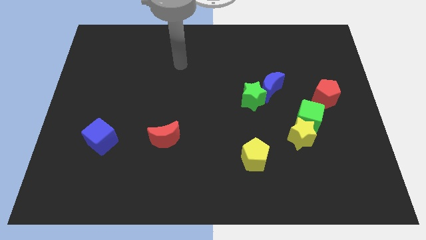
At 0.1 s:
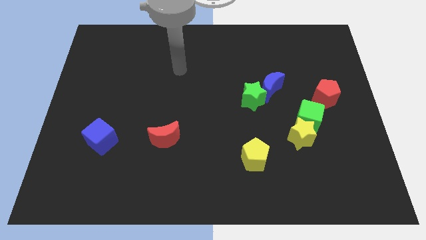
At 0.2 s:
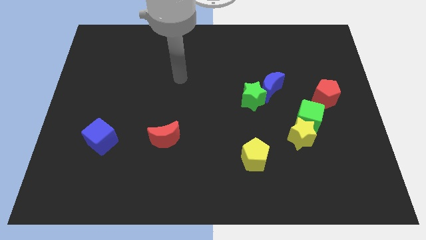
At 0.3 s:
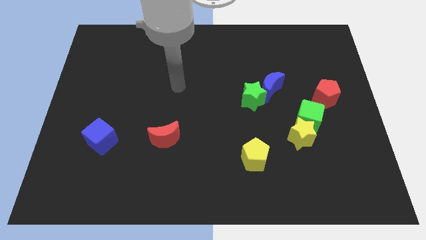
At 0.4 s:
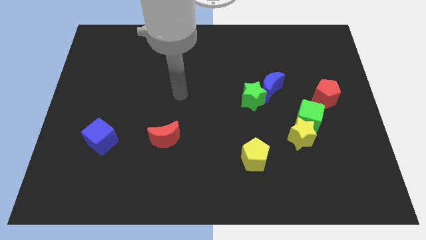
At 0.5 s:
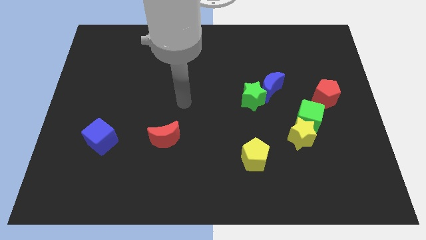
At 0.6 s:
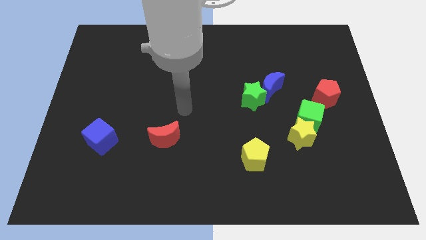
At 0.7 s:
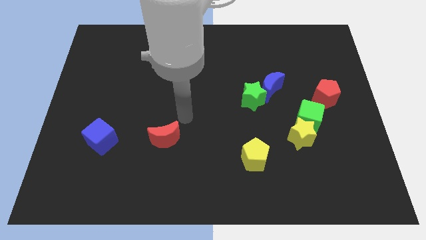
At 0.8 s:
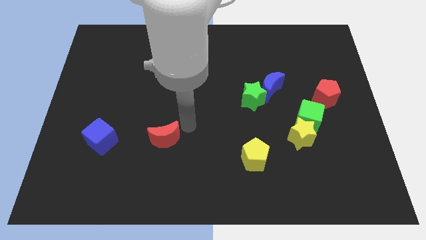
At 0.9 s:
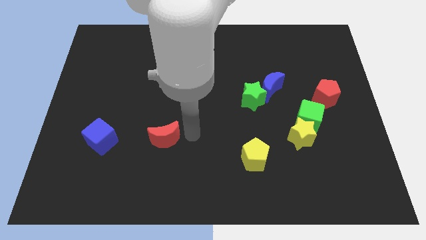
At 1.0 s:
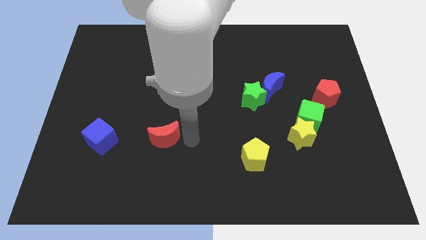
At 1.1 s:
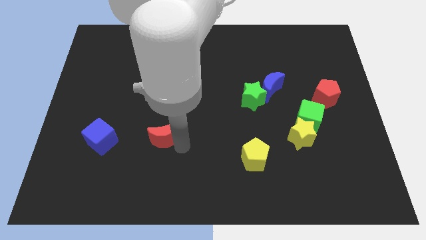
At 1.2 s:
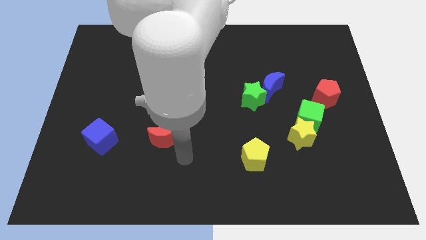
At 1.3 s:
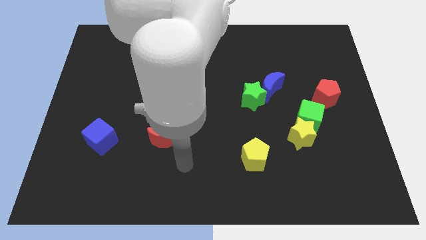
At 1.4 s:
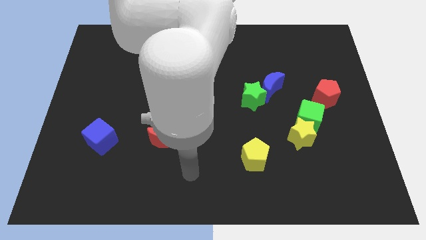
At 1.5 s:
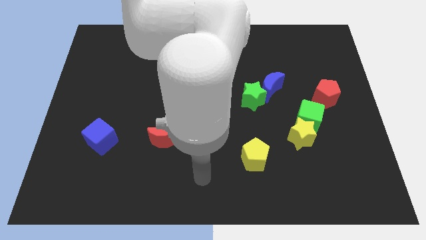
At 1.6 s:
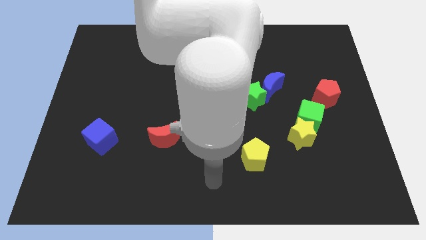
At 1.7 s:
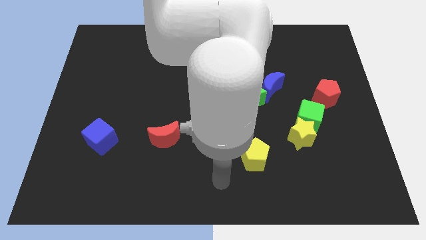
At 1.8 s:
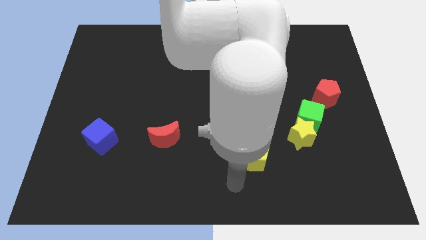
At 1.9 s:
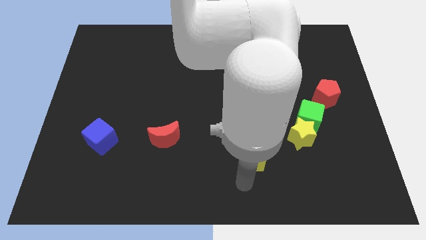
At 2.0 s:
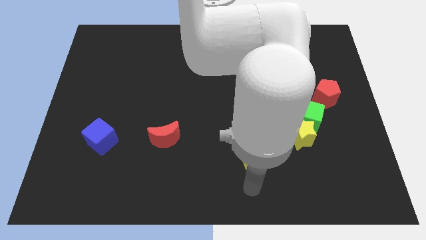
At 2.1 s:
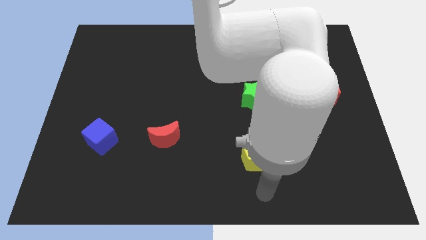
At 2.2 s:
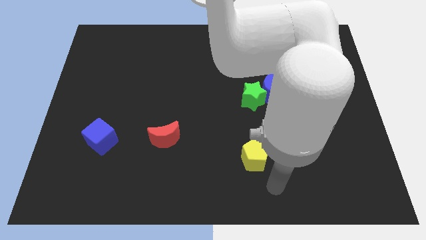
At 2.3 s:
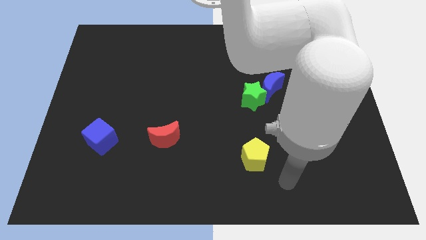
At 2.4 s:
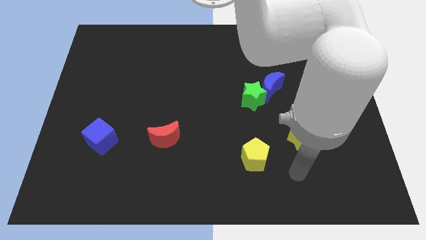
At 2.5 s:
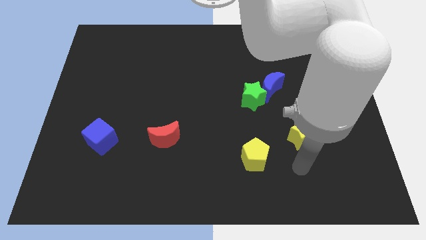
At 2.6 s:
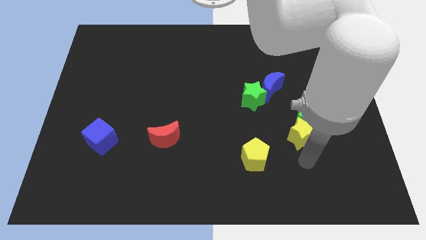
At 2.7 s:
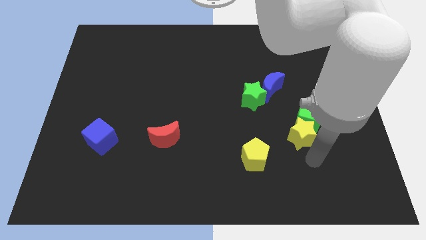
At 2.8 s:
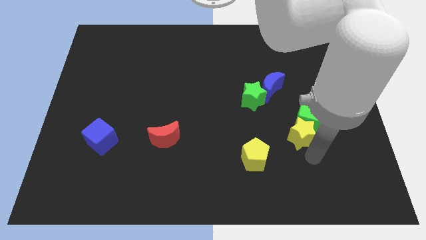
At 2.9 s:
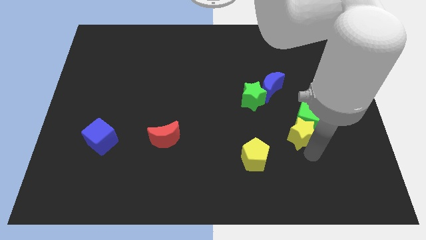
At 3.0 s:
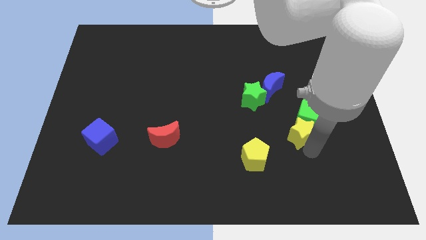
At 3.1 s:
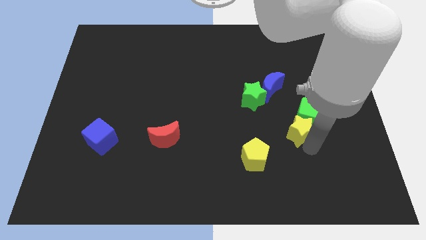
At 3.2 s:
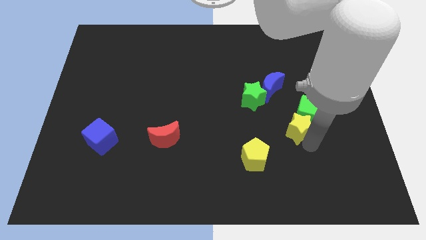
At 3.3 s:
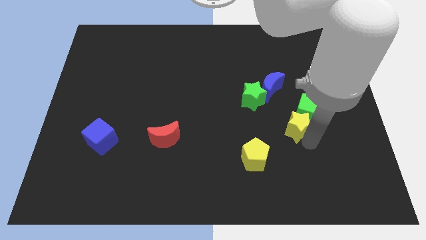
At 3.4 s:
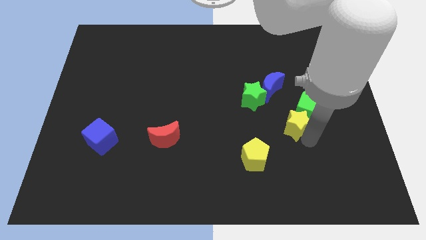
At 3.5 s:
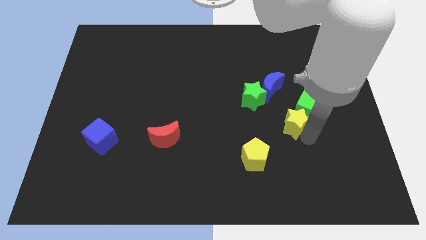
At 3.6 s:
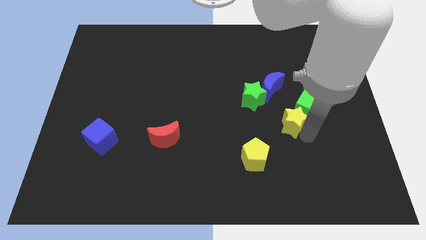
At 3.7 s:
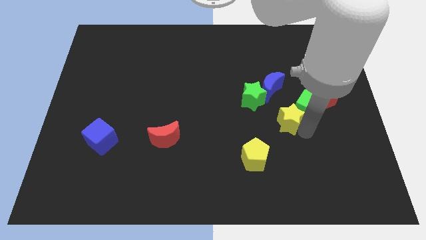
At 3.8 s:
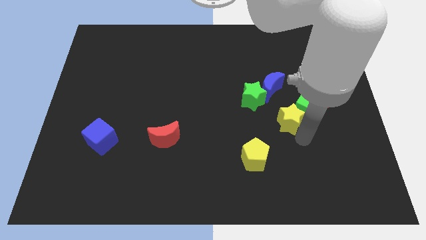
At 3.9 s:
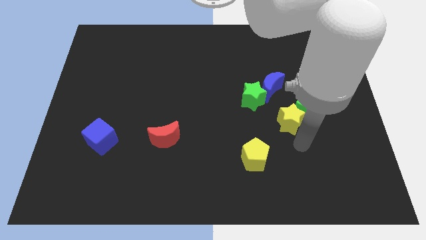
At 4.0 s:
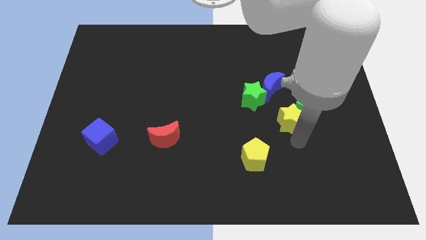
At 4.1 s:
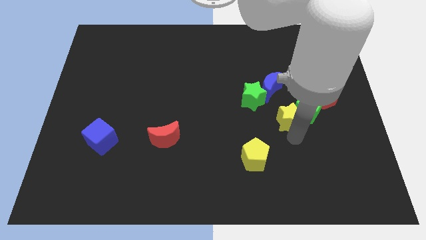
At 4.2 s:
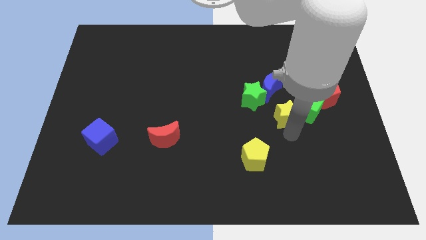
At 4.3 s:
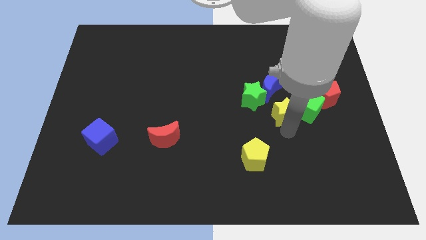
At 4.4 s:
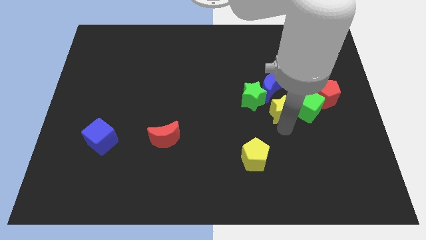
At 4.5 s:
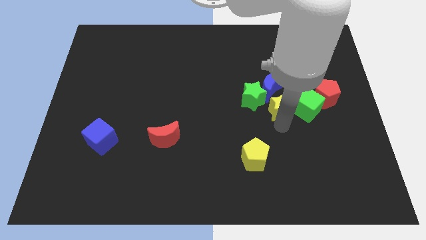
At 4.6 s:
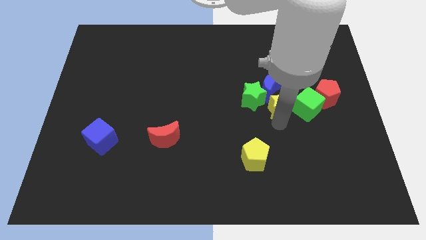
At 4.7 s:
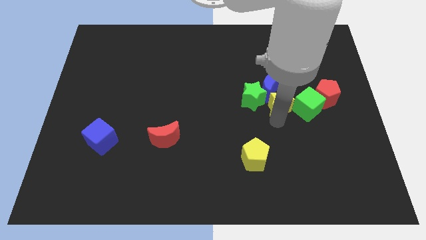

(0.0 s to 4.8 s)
move the yellow star next to the blue moon

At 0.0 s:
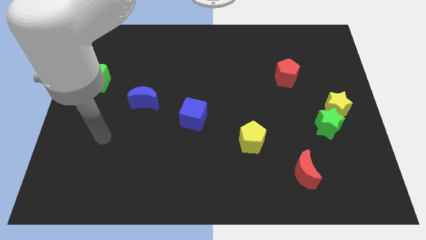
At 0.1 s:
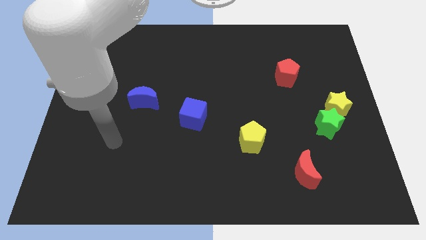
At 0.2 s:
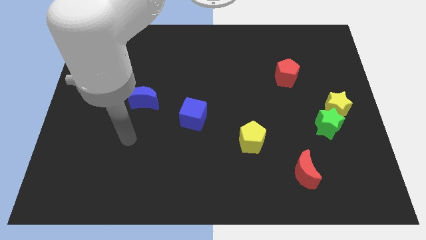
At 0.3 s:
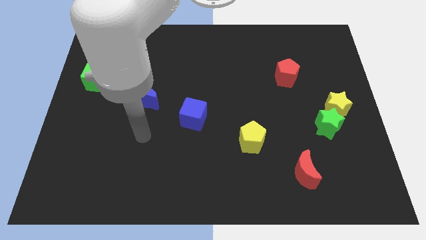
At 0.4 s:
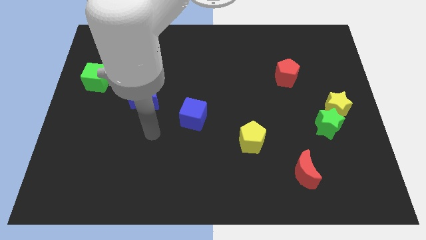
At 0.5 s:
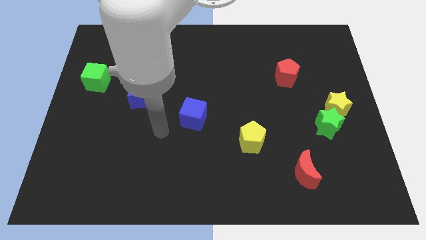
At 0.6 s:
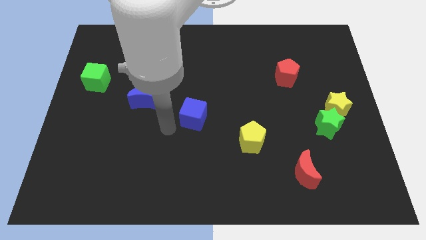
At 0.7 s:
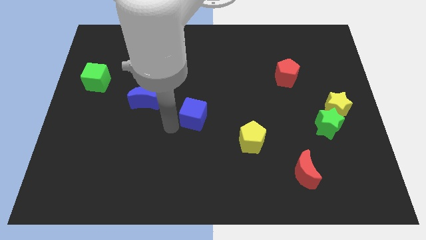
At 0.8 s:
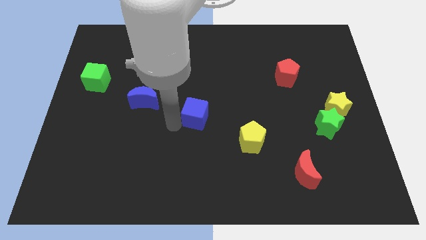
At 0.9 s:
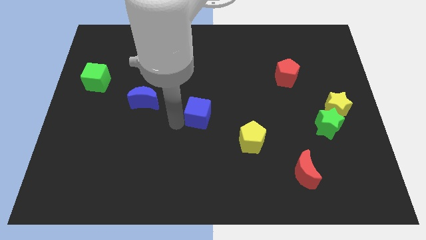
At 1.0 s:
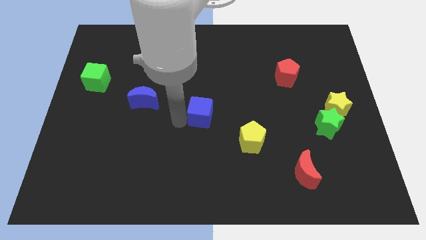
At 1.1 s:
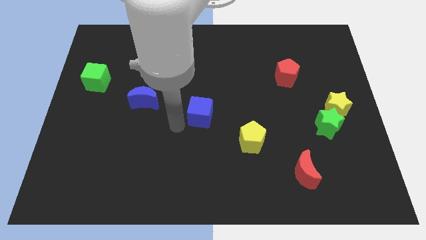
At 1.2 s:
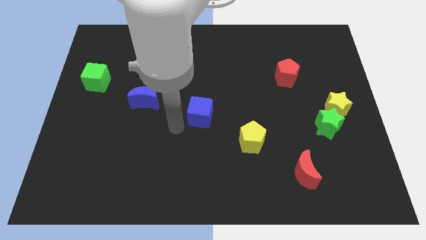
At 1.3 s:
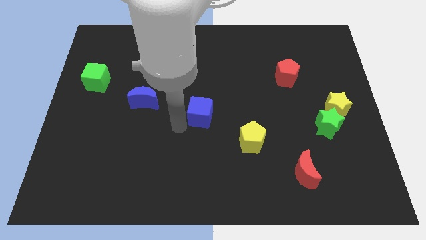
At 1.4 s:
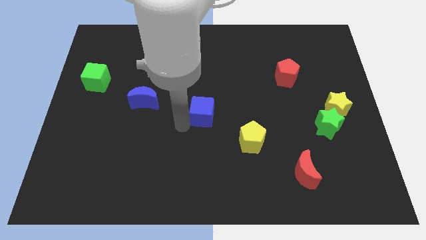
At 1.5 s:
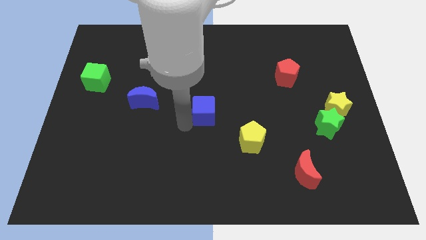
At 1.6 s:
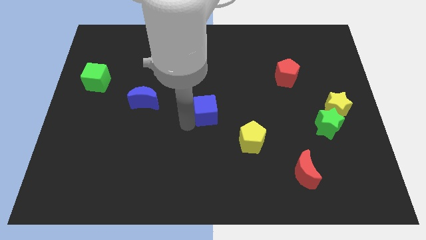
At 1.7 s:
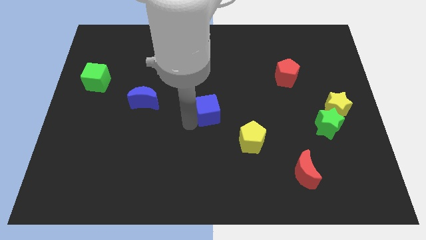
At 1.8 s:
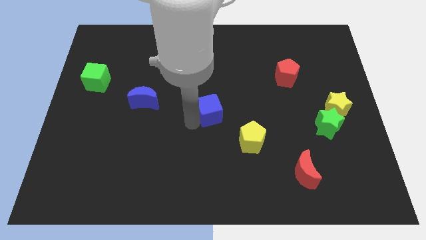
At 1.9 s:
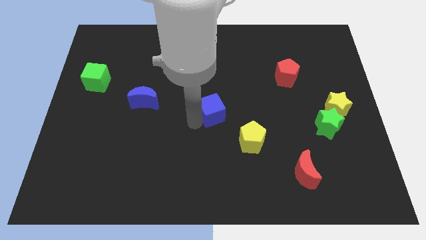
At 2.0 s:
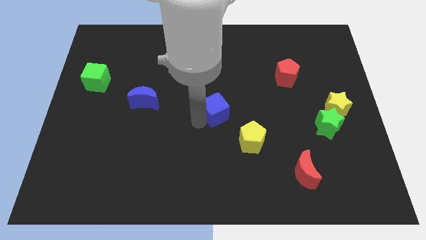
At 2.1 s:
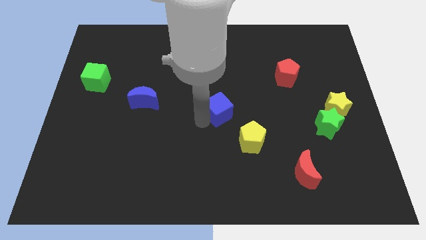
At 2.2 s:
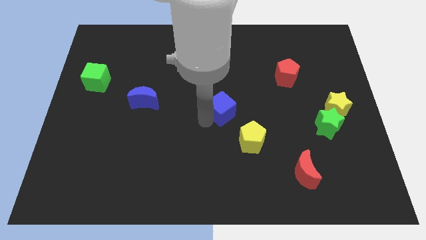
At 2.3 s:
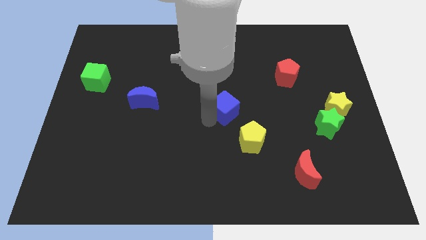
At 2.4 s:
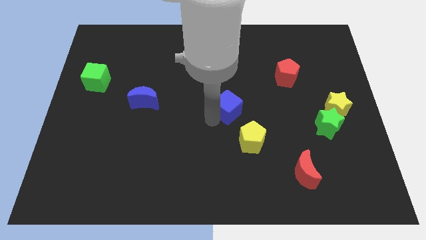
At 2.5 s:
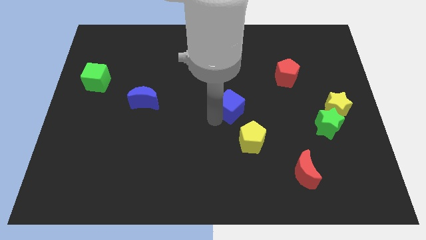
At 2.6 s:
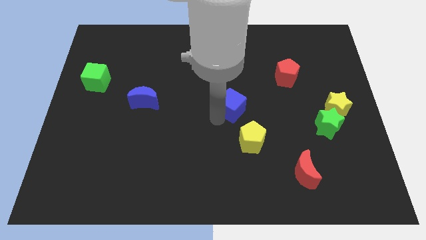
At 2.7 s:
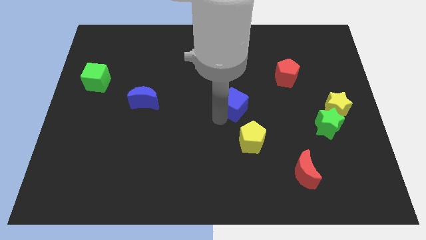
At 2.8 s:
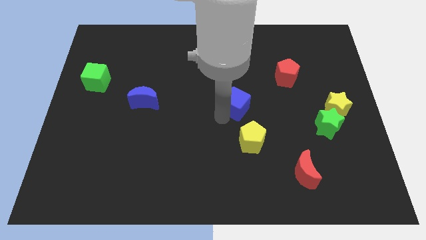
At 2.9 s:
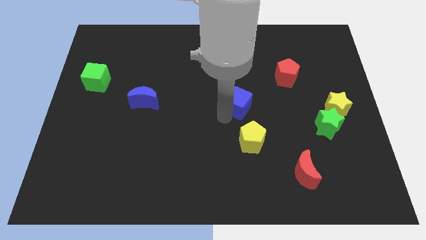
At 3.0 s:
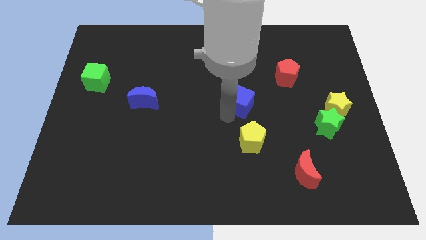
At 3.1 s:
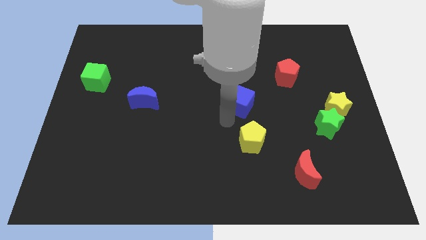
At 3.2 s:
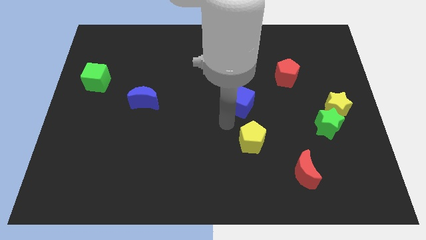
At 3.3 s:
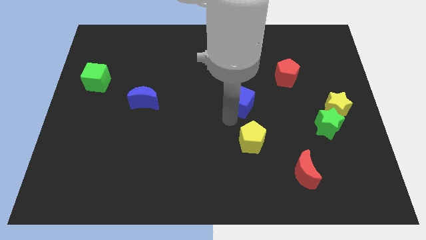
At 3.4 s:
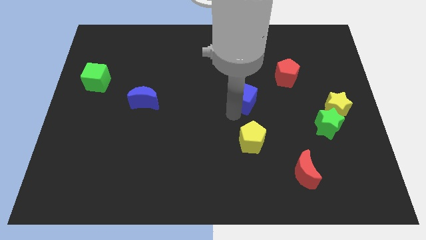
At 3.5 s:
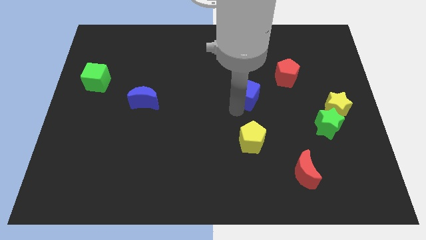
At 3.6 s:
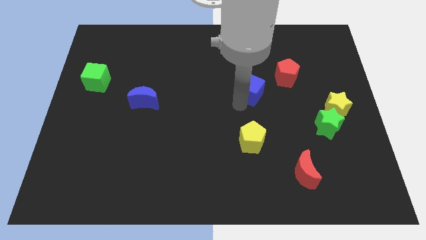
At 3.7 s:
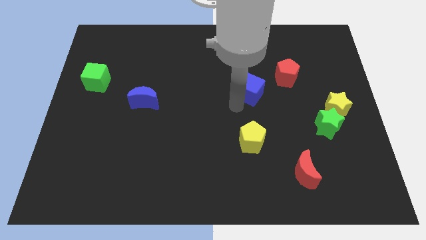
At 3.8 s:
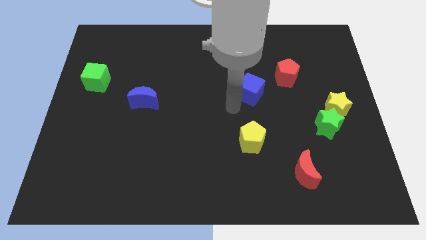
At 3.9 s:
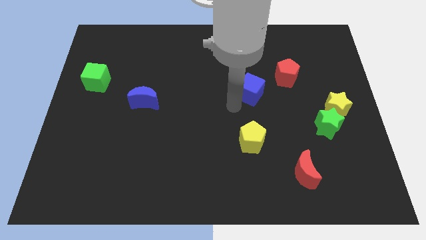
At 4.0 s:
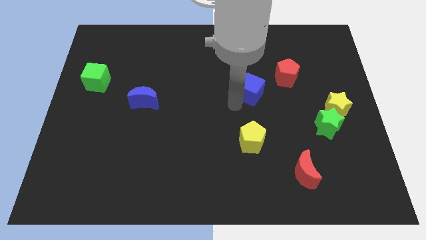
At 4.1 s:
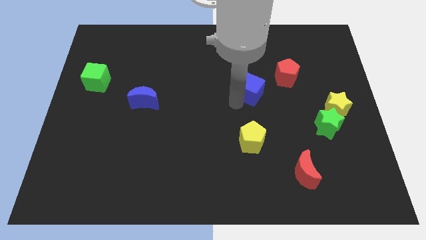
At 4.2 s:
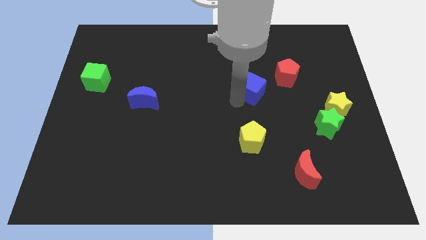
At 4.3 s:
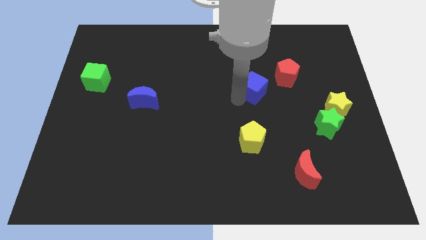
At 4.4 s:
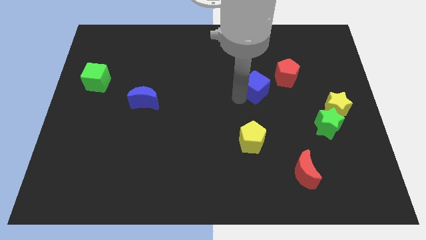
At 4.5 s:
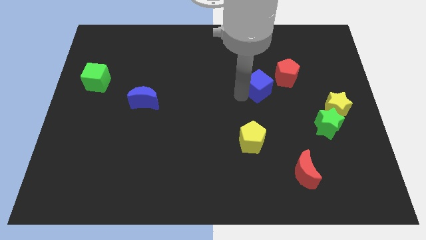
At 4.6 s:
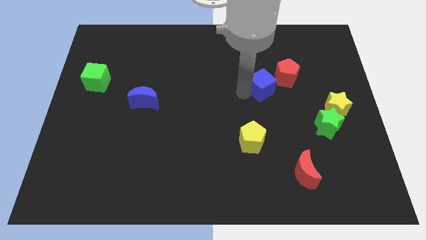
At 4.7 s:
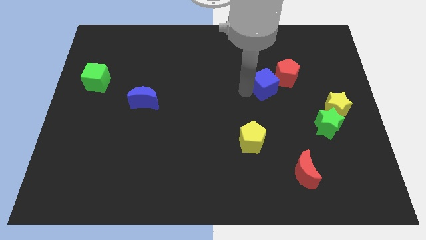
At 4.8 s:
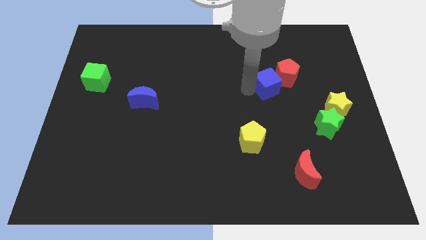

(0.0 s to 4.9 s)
move the blue cube close to the red pentagon
